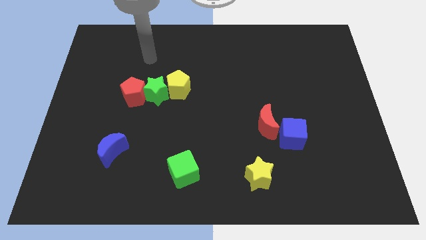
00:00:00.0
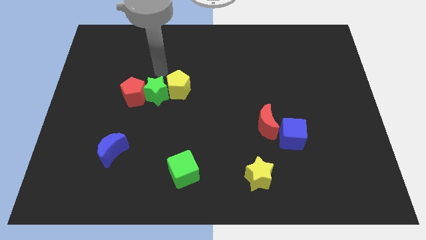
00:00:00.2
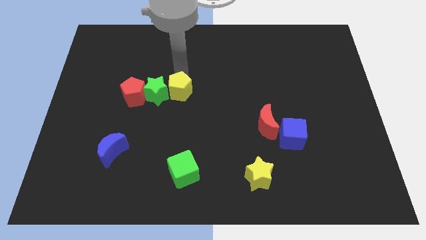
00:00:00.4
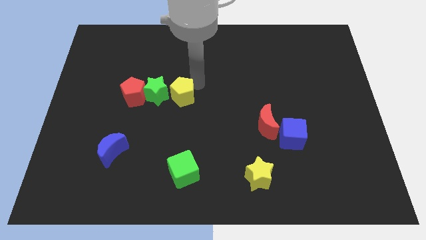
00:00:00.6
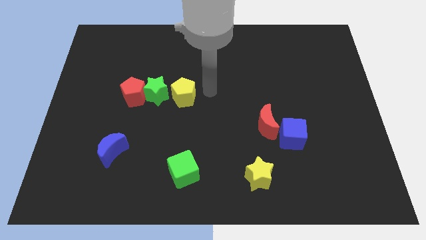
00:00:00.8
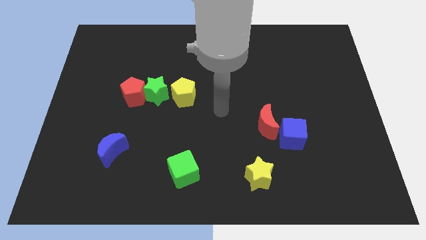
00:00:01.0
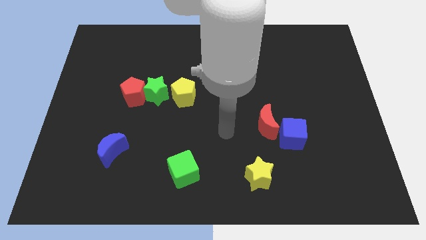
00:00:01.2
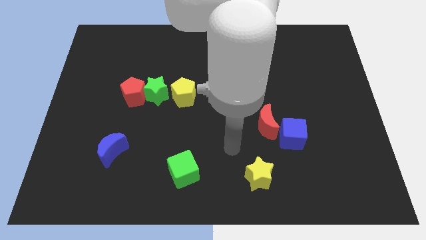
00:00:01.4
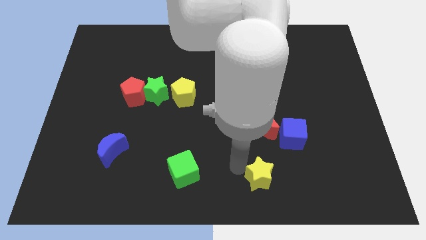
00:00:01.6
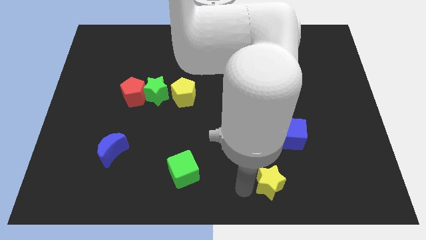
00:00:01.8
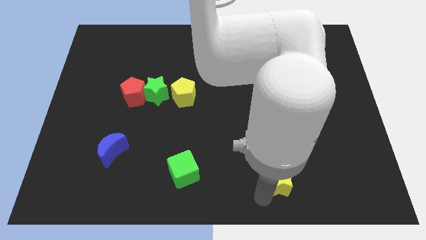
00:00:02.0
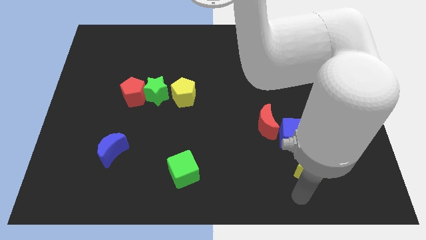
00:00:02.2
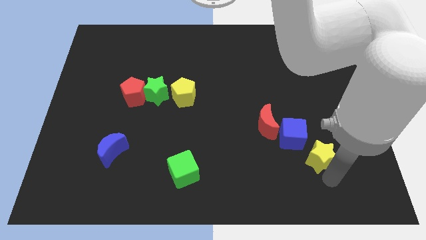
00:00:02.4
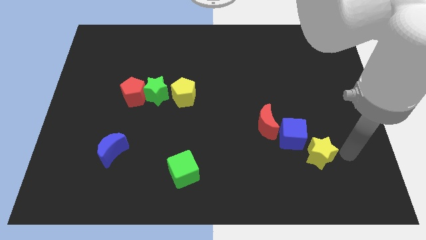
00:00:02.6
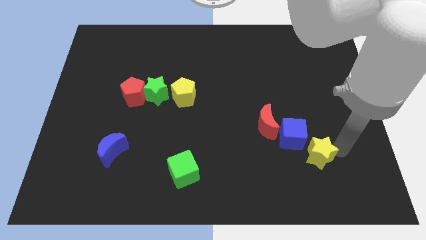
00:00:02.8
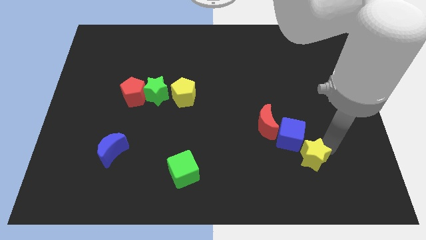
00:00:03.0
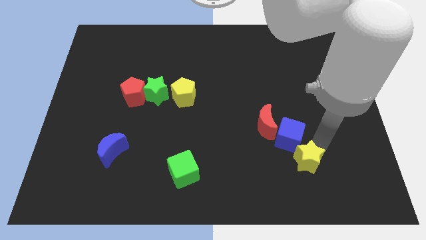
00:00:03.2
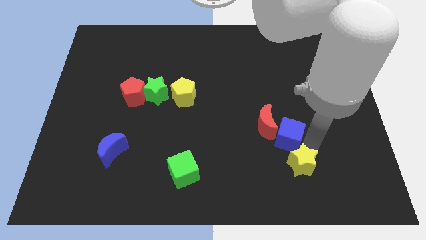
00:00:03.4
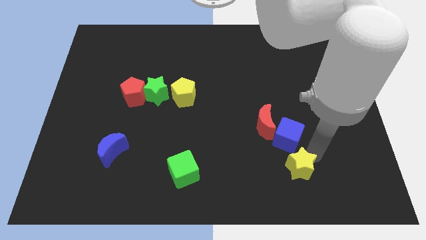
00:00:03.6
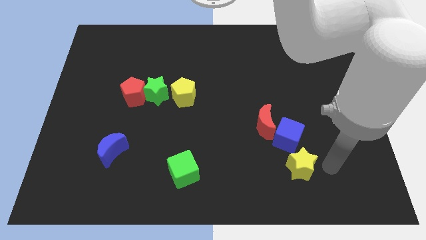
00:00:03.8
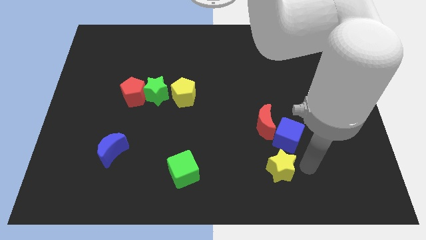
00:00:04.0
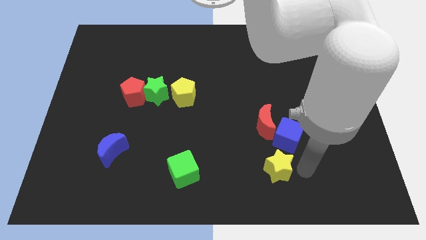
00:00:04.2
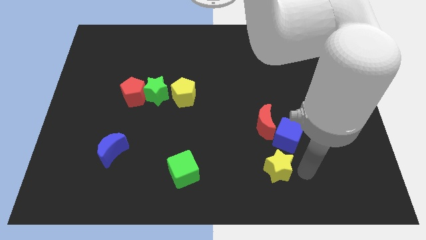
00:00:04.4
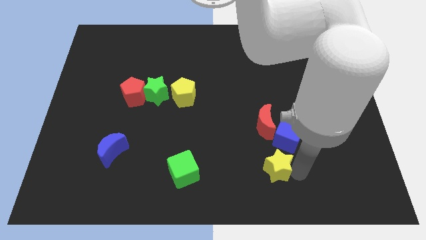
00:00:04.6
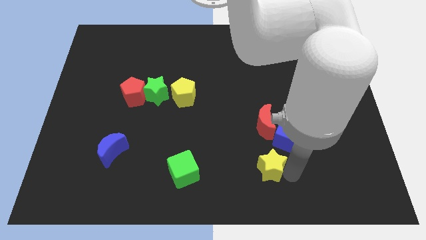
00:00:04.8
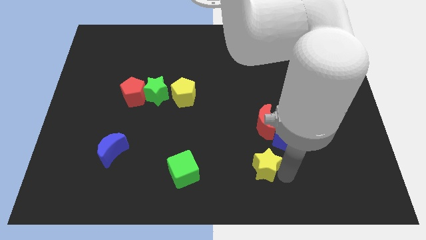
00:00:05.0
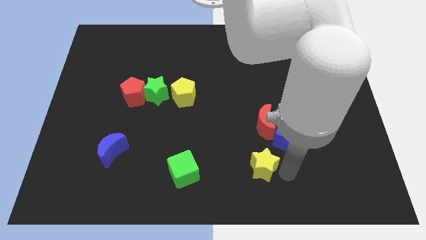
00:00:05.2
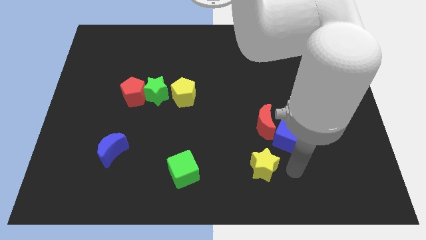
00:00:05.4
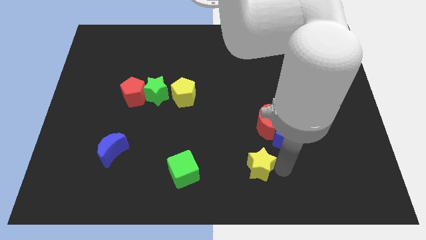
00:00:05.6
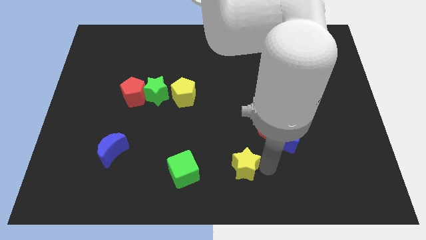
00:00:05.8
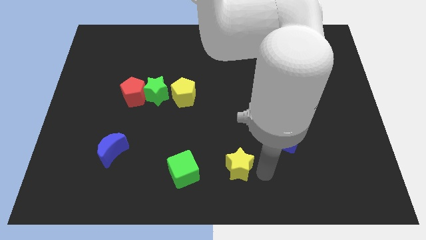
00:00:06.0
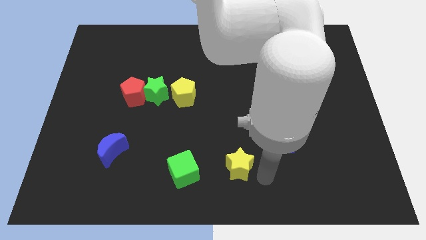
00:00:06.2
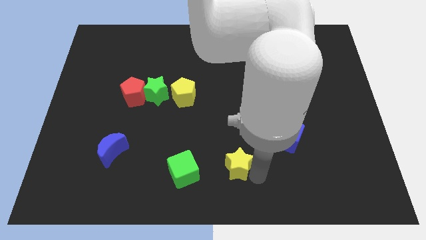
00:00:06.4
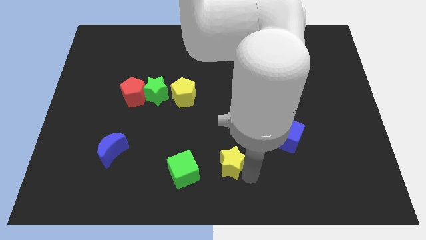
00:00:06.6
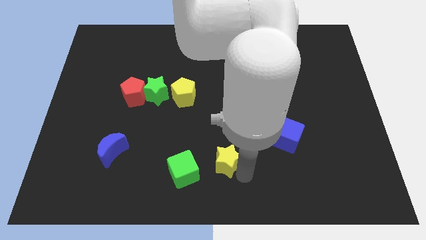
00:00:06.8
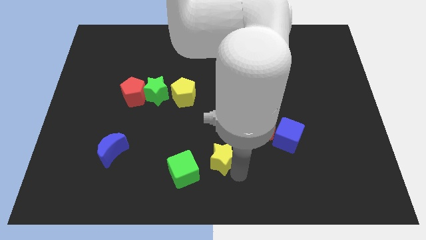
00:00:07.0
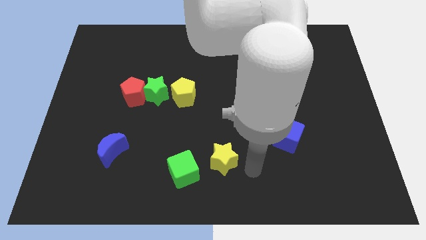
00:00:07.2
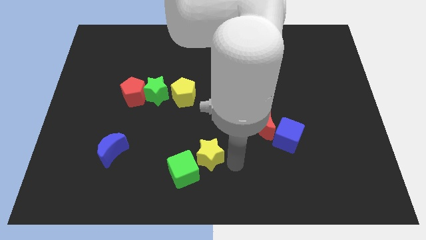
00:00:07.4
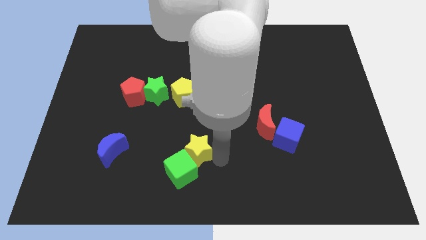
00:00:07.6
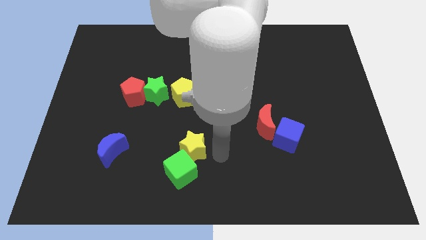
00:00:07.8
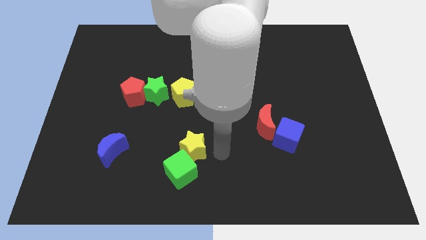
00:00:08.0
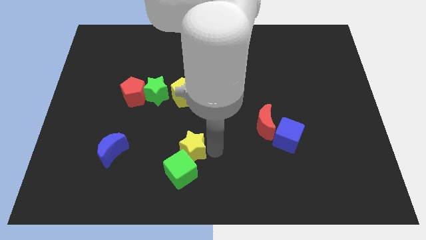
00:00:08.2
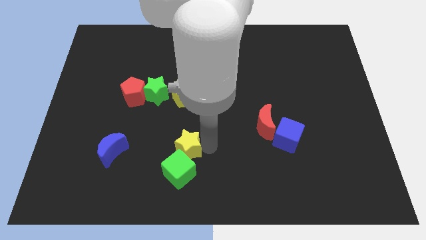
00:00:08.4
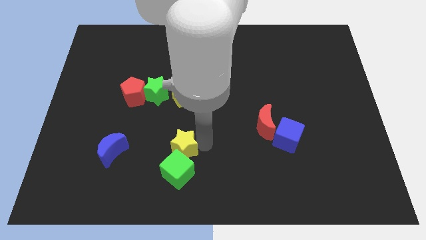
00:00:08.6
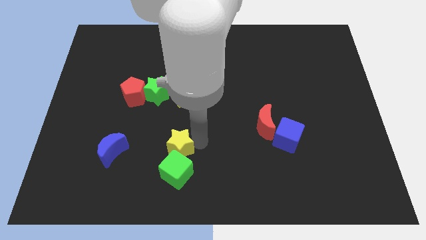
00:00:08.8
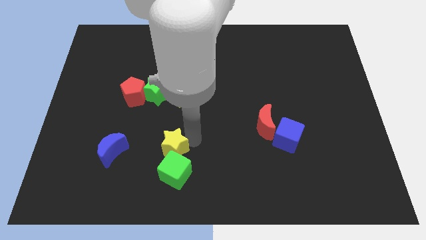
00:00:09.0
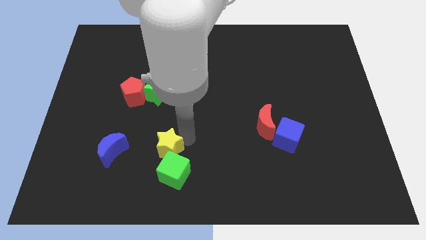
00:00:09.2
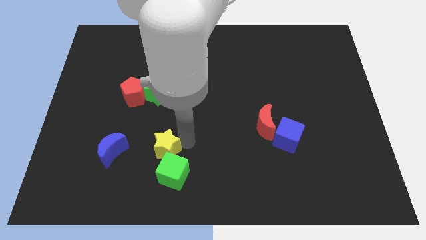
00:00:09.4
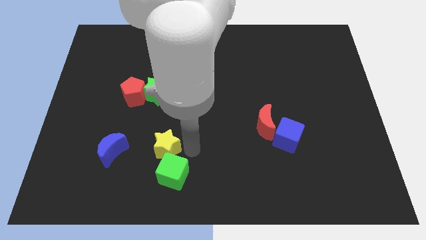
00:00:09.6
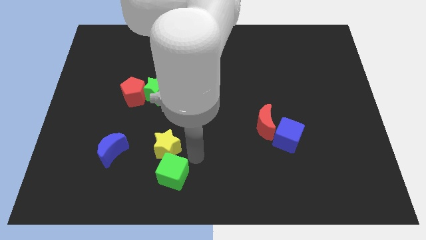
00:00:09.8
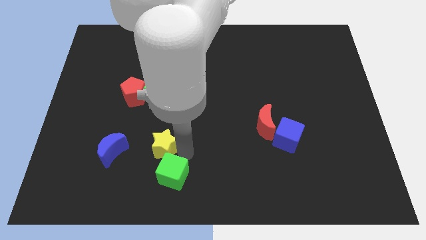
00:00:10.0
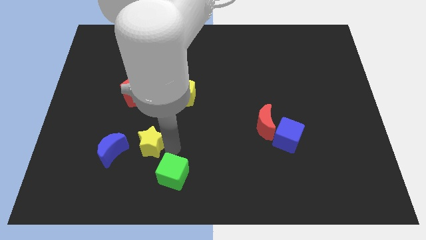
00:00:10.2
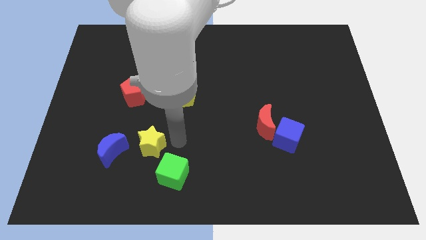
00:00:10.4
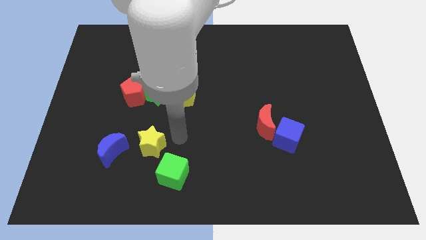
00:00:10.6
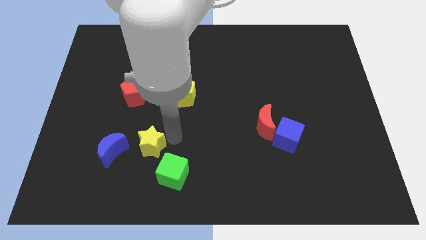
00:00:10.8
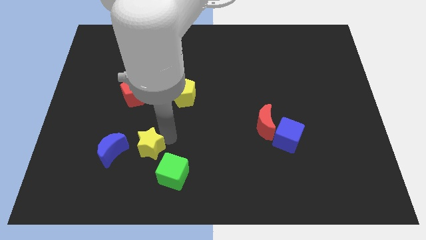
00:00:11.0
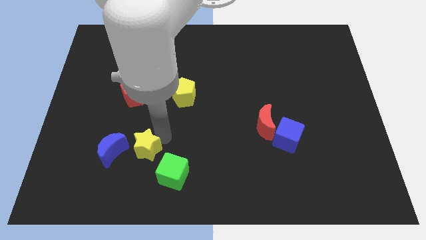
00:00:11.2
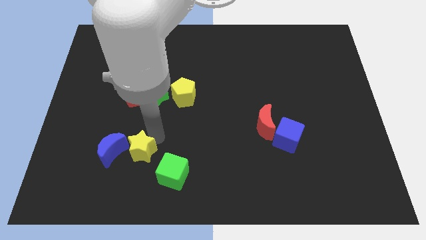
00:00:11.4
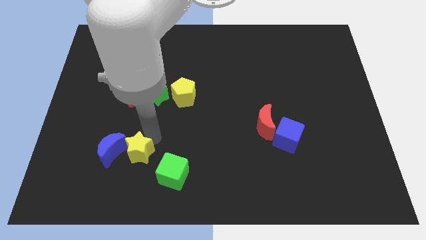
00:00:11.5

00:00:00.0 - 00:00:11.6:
push the yellow star towards the blue moon

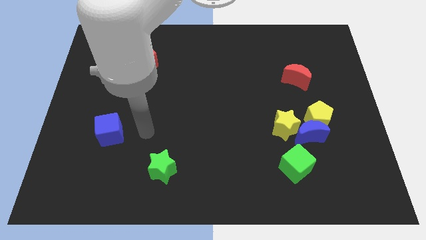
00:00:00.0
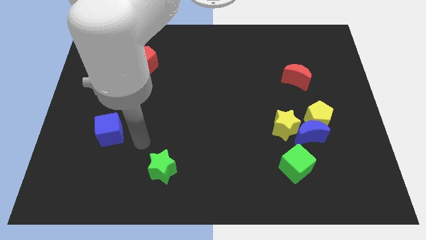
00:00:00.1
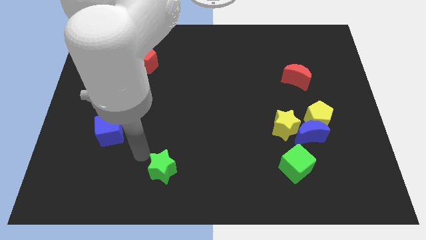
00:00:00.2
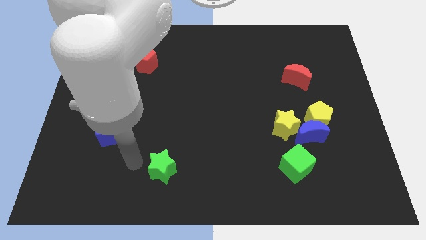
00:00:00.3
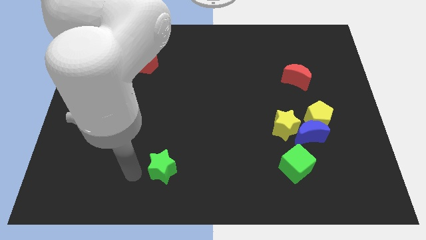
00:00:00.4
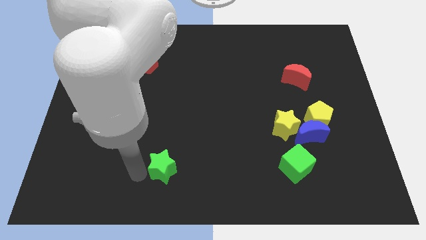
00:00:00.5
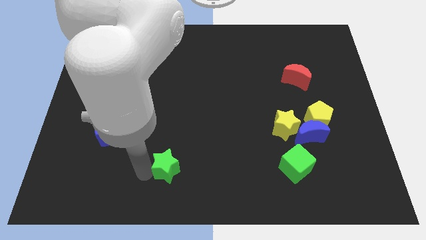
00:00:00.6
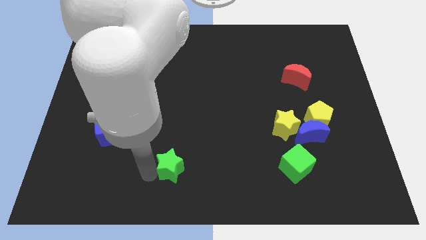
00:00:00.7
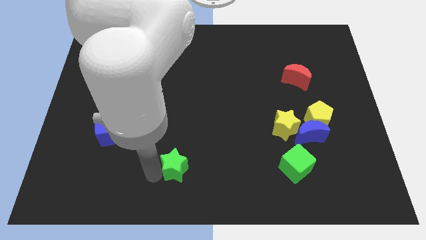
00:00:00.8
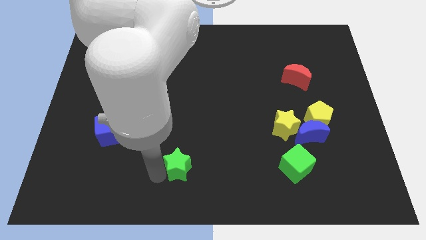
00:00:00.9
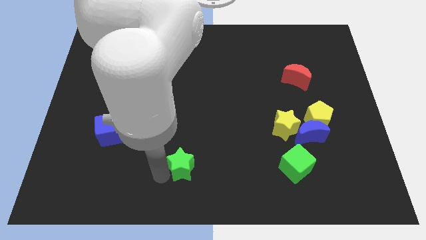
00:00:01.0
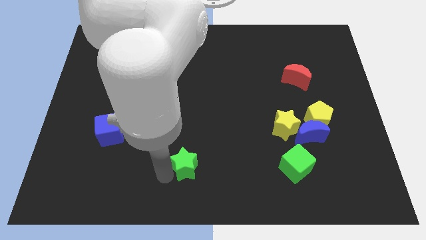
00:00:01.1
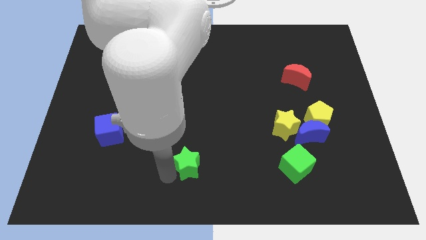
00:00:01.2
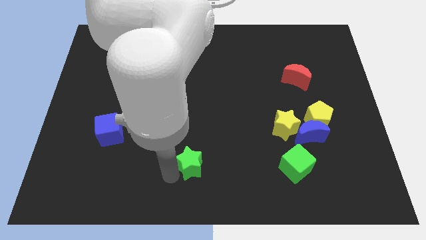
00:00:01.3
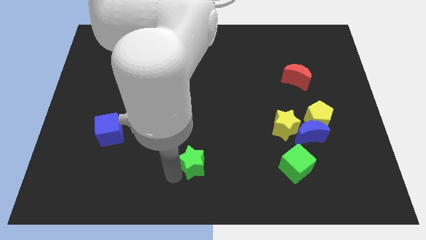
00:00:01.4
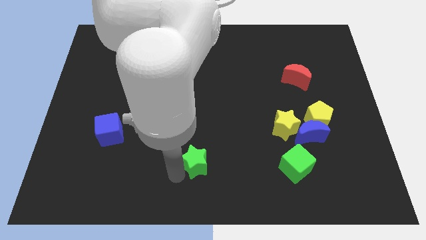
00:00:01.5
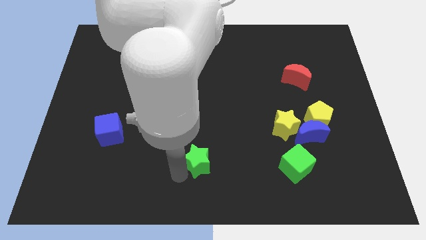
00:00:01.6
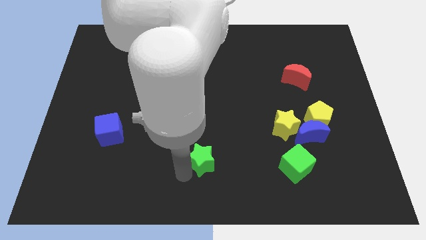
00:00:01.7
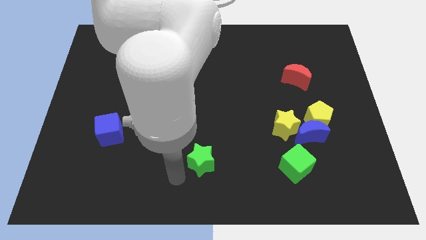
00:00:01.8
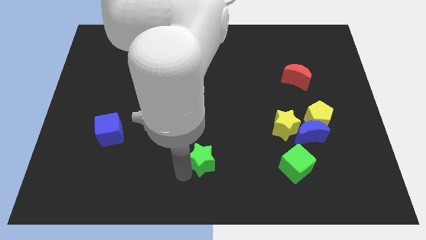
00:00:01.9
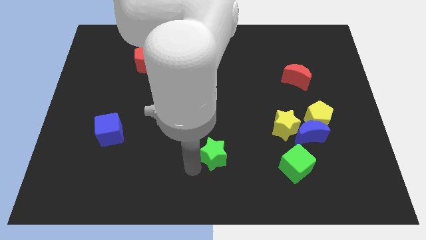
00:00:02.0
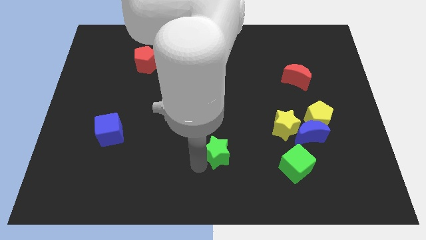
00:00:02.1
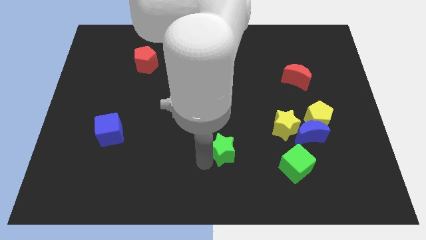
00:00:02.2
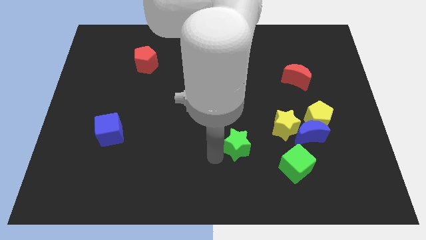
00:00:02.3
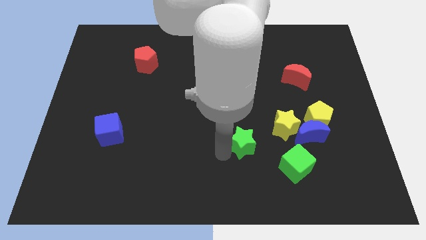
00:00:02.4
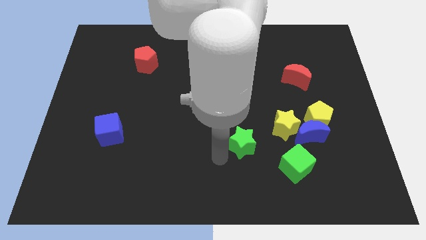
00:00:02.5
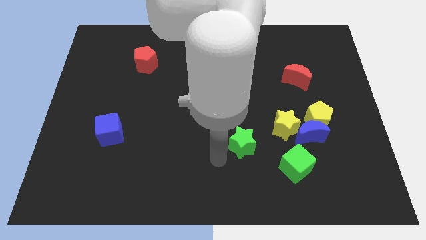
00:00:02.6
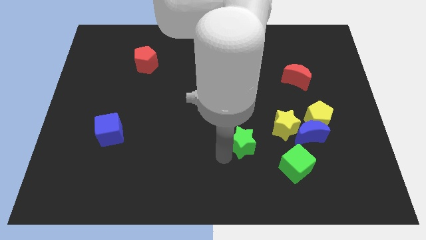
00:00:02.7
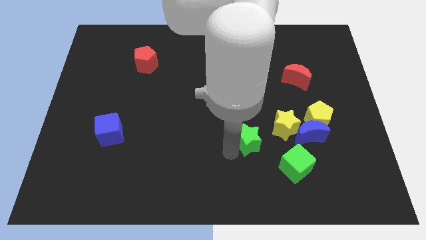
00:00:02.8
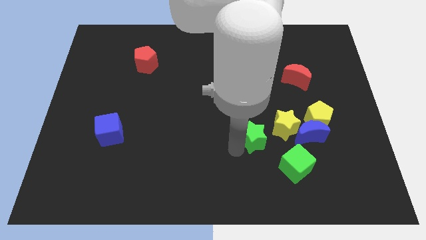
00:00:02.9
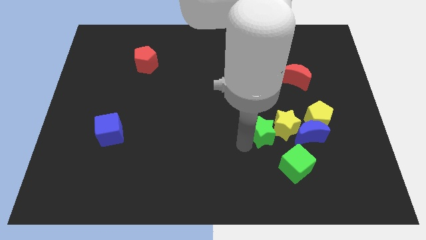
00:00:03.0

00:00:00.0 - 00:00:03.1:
move the green star towards the yellow star
